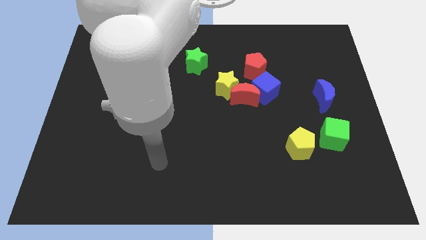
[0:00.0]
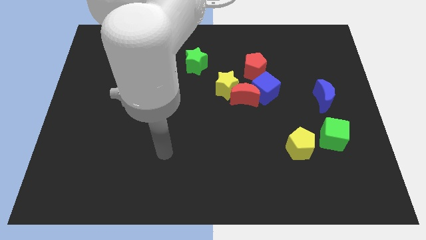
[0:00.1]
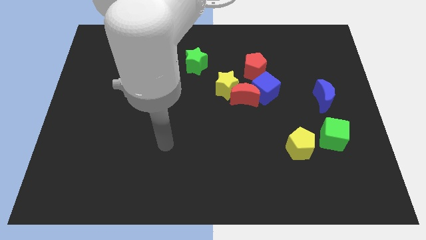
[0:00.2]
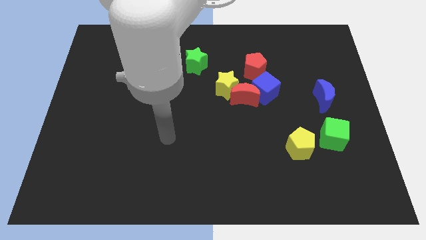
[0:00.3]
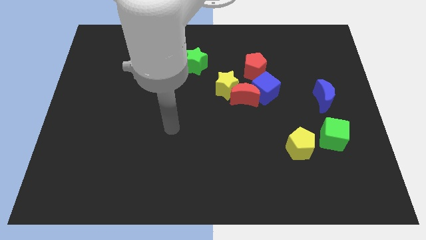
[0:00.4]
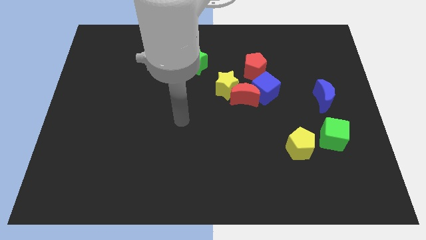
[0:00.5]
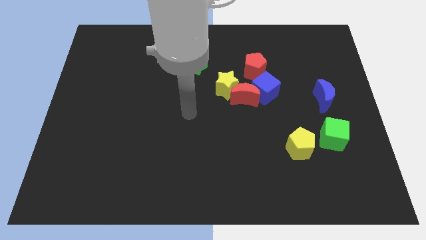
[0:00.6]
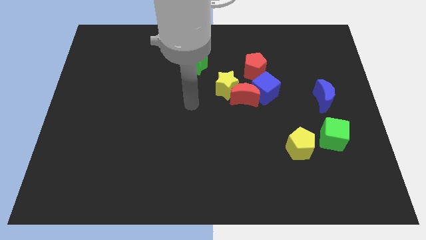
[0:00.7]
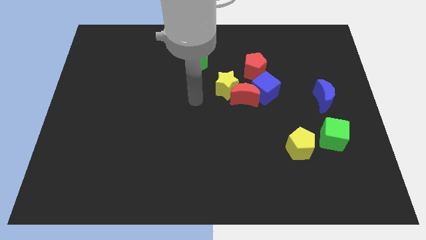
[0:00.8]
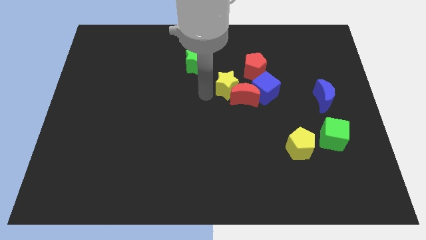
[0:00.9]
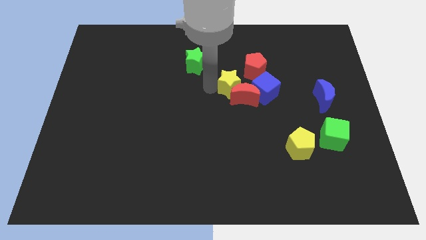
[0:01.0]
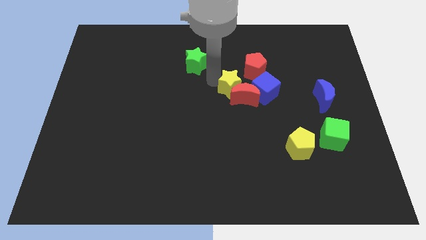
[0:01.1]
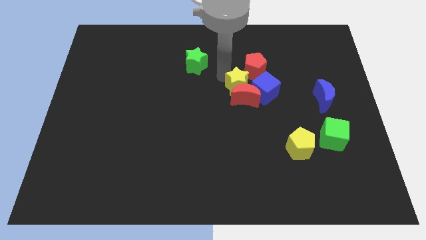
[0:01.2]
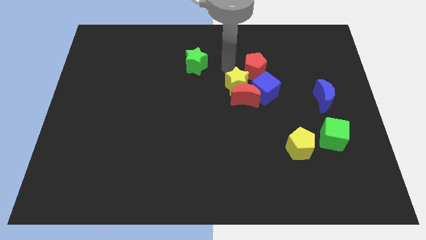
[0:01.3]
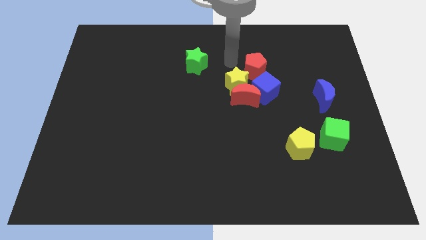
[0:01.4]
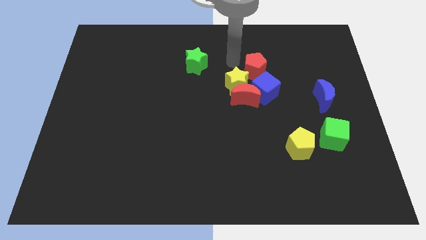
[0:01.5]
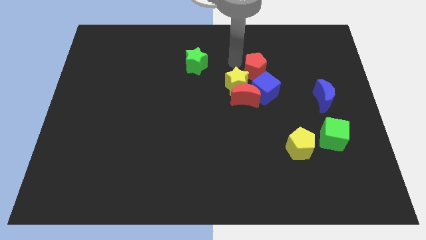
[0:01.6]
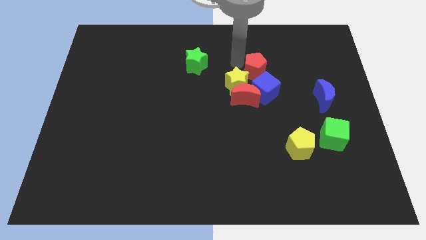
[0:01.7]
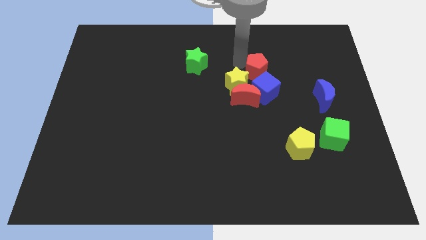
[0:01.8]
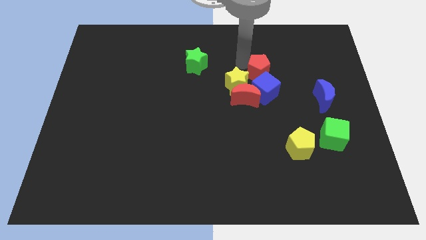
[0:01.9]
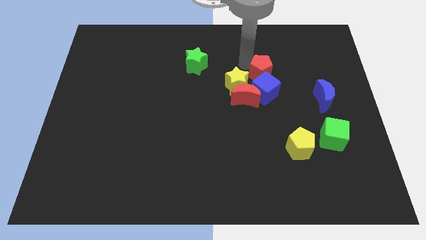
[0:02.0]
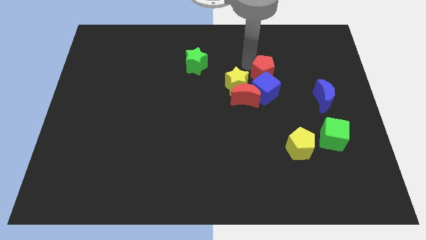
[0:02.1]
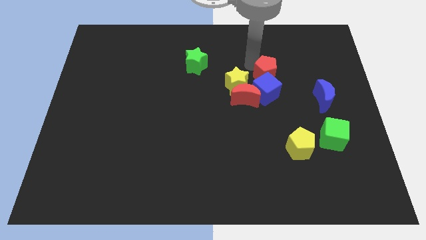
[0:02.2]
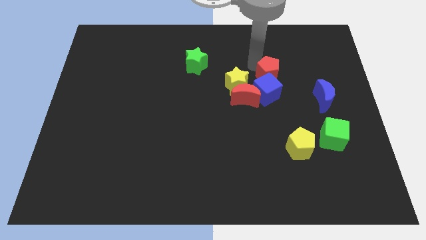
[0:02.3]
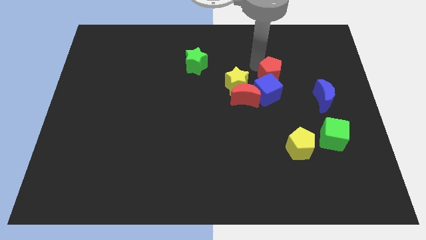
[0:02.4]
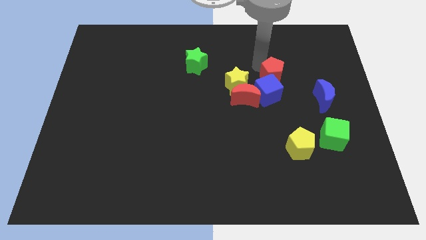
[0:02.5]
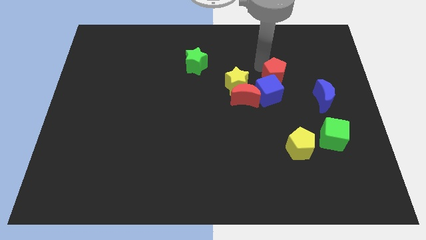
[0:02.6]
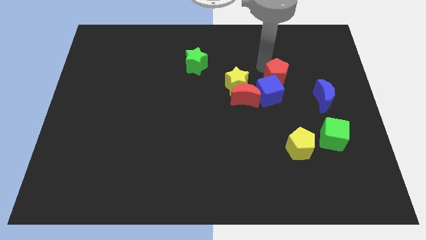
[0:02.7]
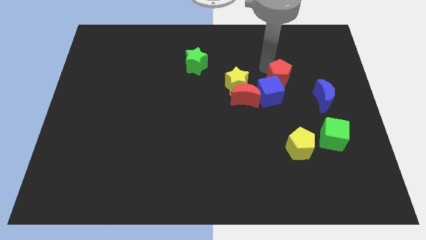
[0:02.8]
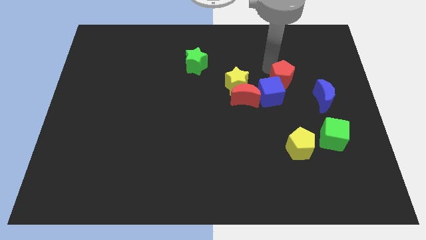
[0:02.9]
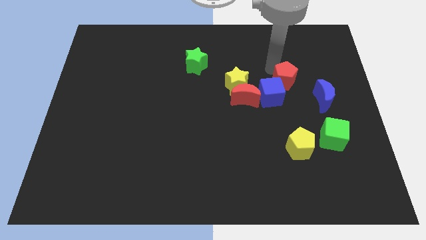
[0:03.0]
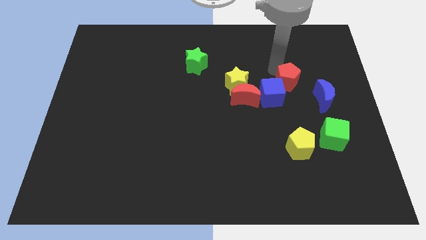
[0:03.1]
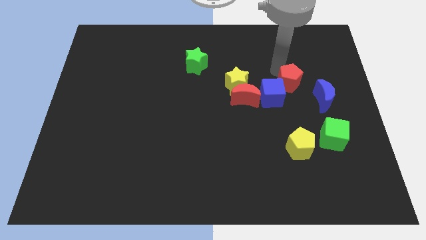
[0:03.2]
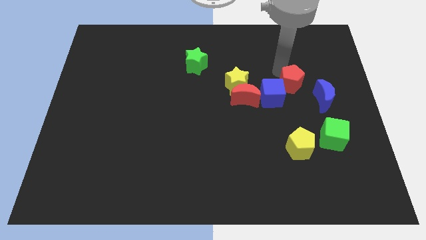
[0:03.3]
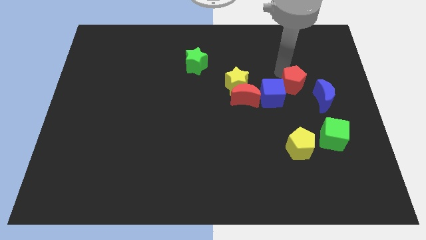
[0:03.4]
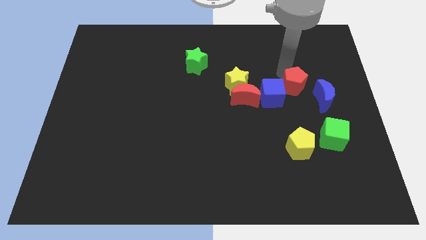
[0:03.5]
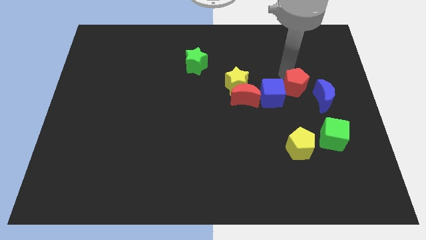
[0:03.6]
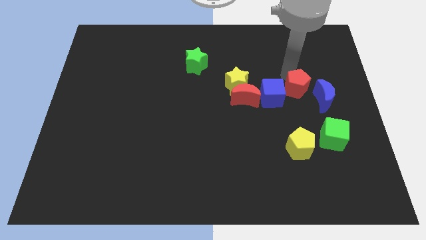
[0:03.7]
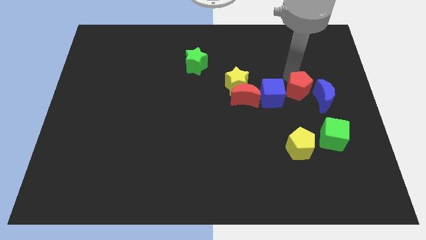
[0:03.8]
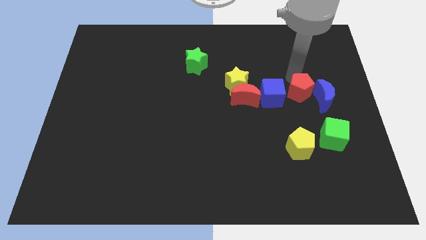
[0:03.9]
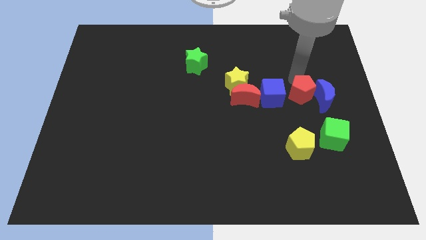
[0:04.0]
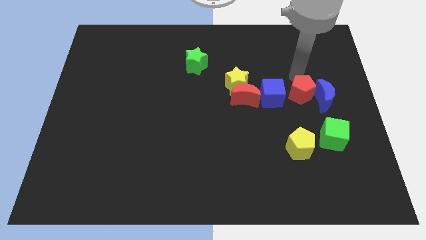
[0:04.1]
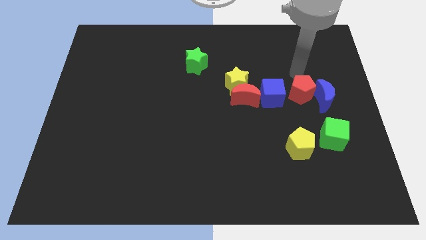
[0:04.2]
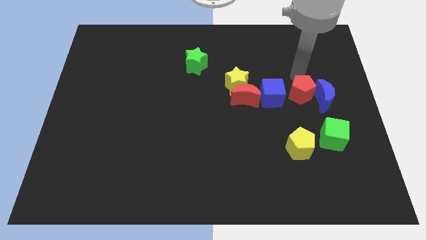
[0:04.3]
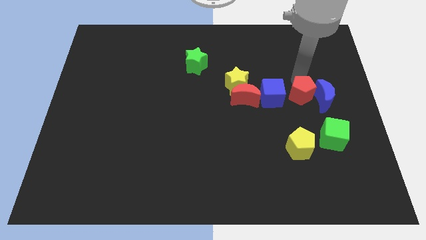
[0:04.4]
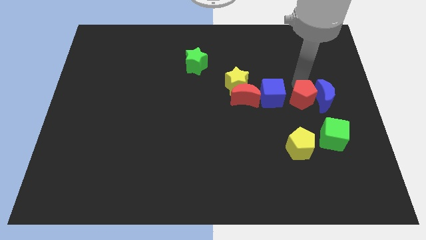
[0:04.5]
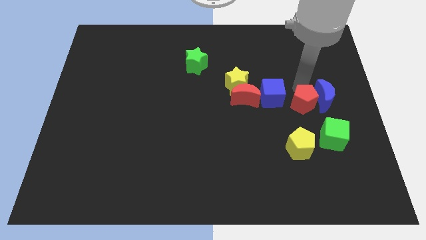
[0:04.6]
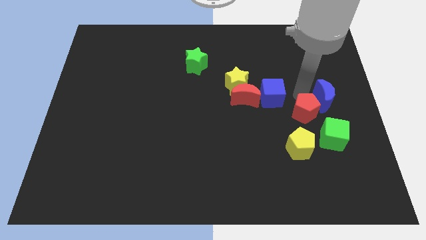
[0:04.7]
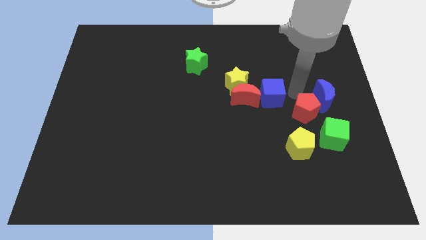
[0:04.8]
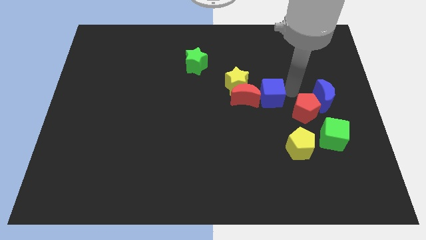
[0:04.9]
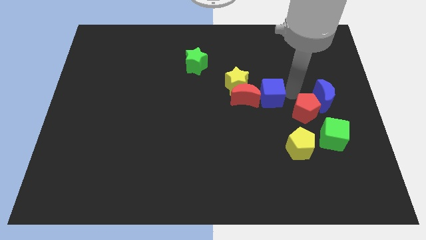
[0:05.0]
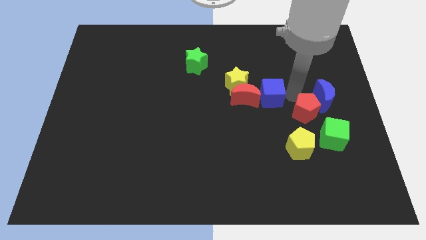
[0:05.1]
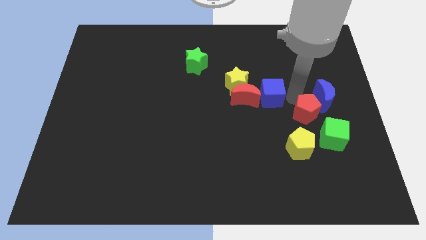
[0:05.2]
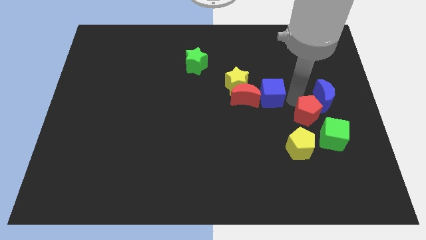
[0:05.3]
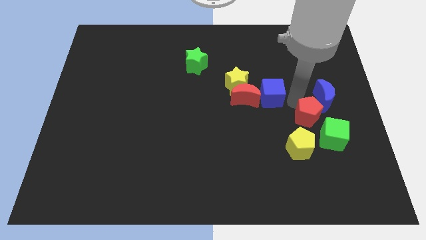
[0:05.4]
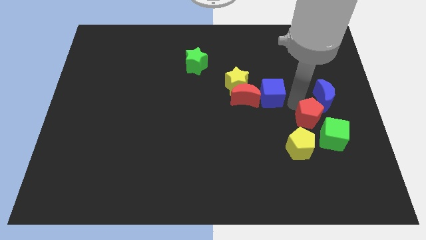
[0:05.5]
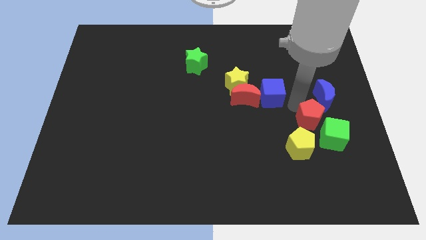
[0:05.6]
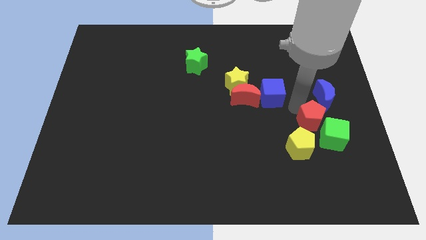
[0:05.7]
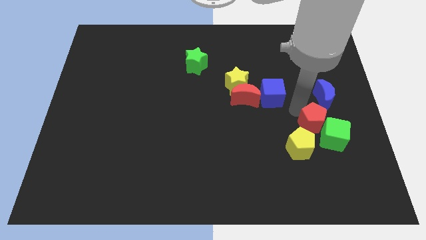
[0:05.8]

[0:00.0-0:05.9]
slide the red pentagon close to the green cube

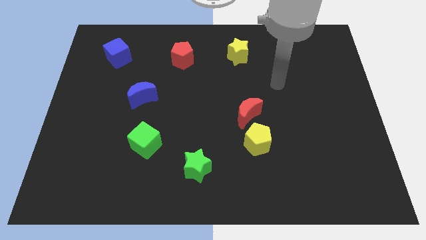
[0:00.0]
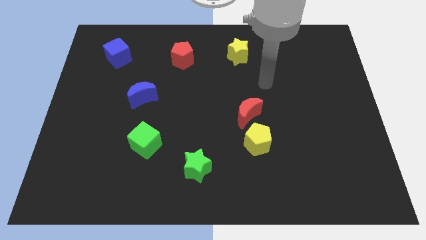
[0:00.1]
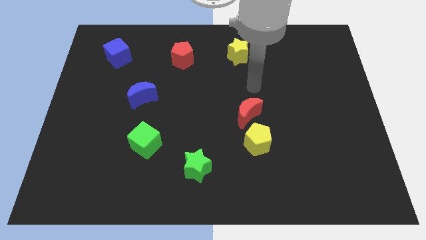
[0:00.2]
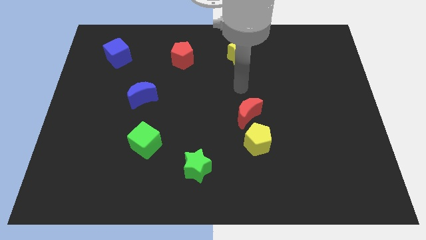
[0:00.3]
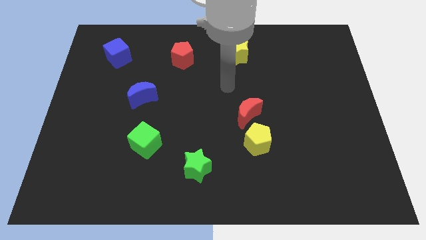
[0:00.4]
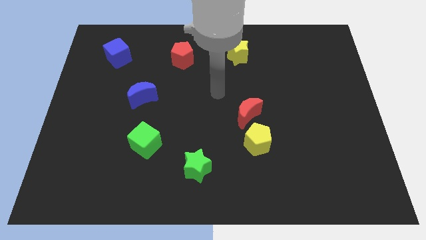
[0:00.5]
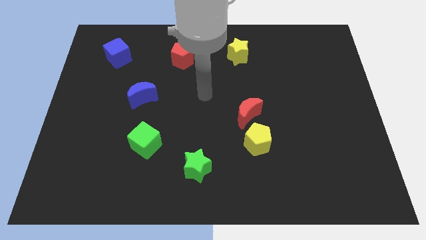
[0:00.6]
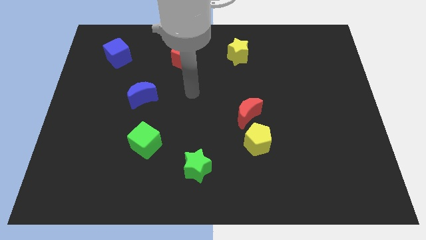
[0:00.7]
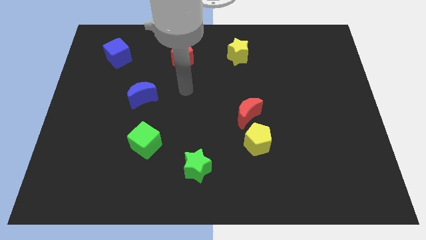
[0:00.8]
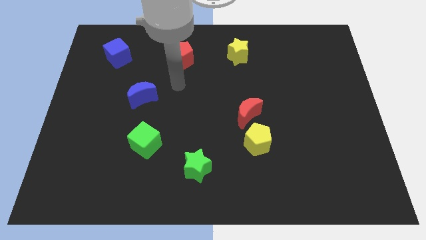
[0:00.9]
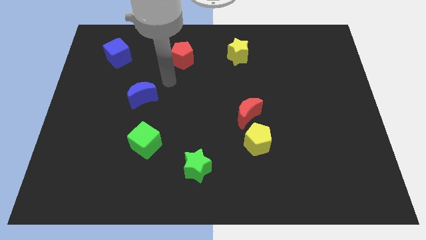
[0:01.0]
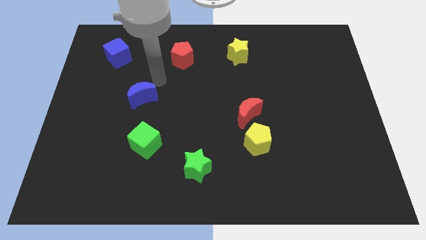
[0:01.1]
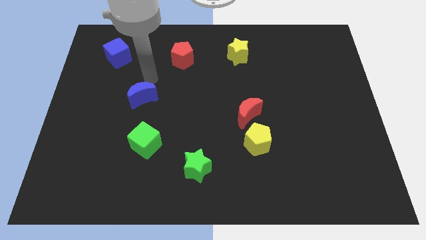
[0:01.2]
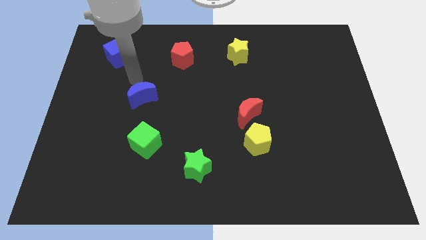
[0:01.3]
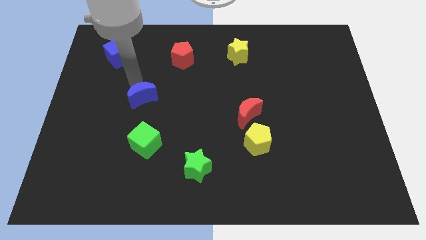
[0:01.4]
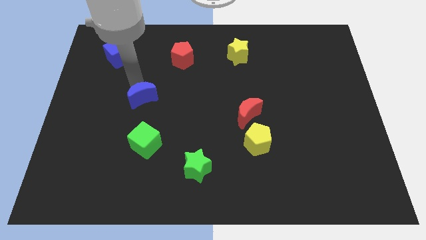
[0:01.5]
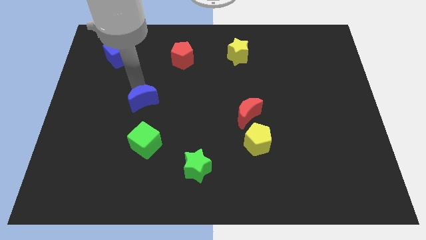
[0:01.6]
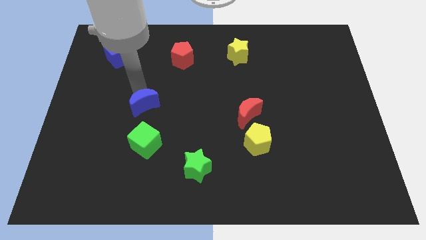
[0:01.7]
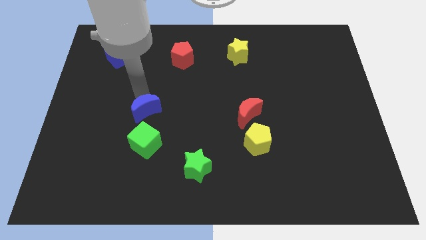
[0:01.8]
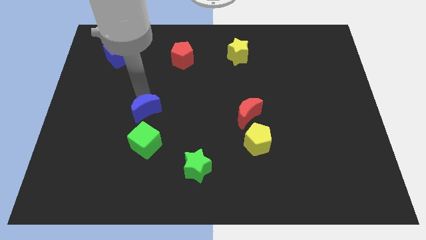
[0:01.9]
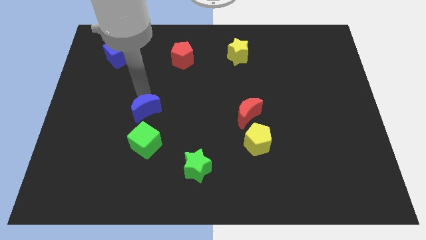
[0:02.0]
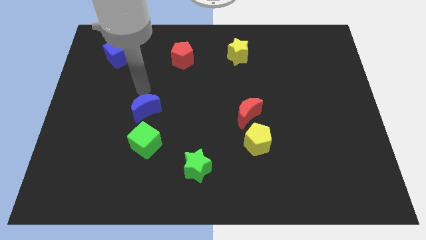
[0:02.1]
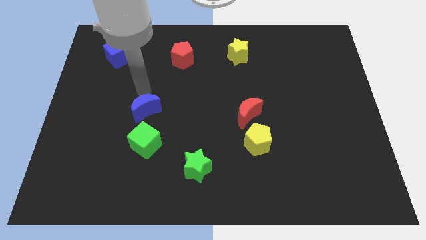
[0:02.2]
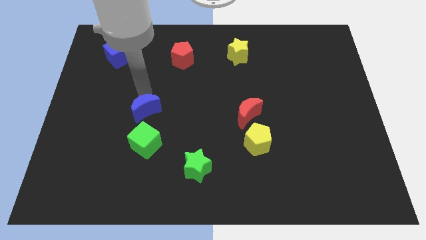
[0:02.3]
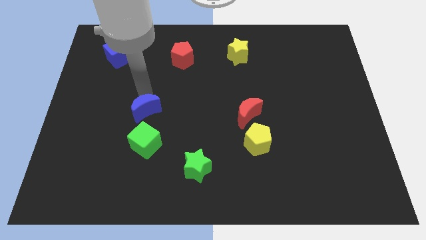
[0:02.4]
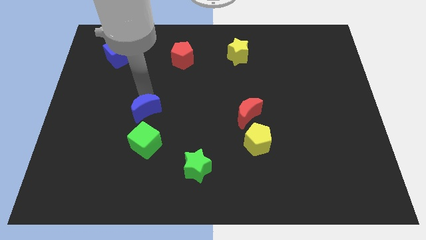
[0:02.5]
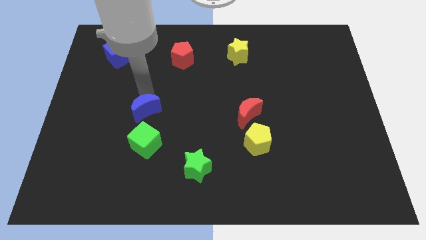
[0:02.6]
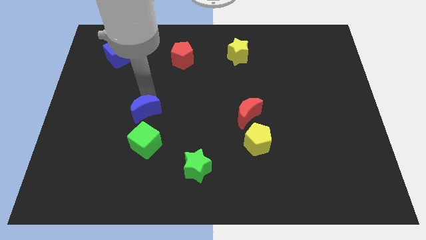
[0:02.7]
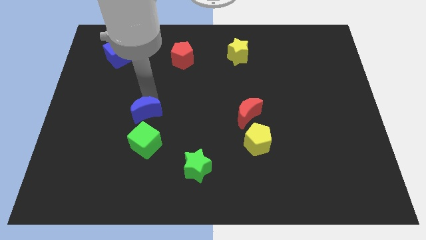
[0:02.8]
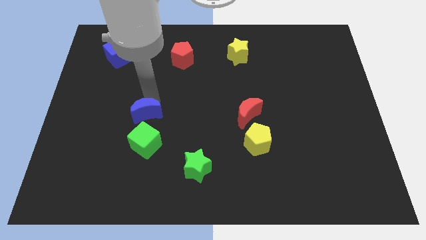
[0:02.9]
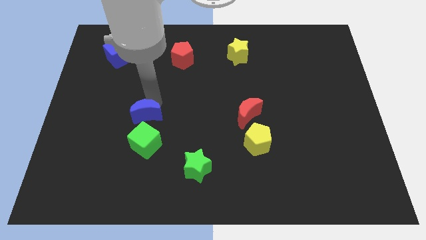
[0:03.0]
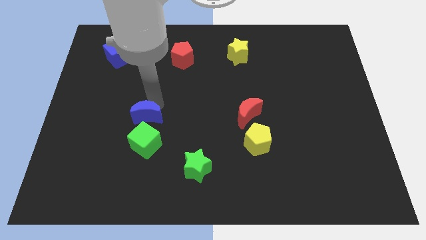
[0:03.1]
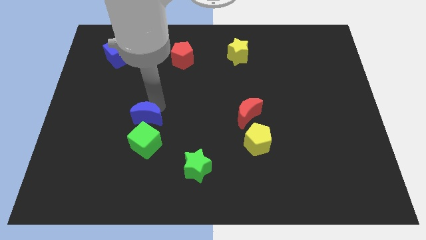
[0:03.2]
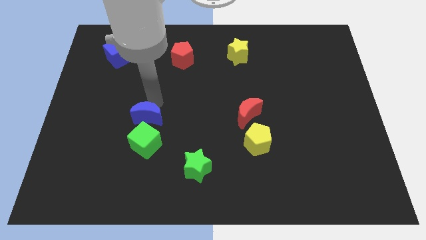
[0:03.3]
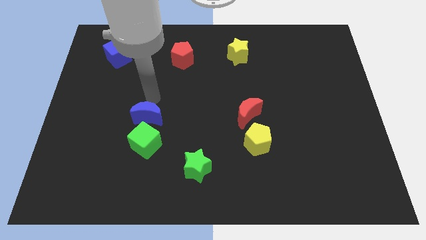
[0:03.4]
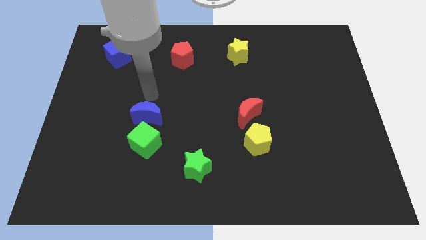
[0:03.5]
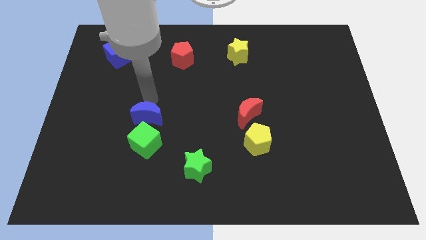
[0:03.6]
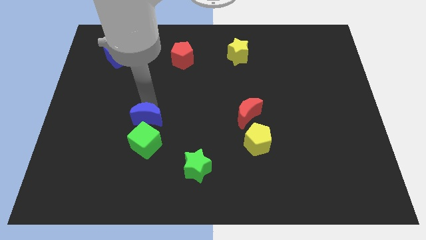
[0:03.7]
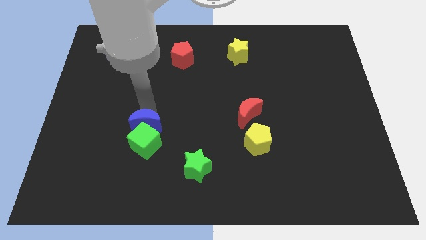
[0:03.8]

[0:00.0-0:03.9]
put the blue moon next to the green cube
